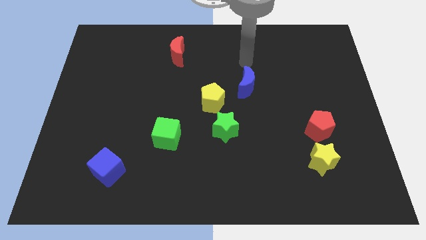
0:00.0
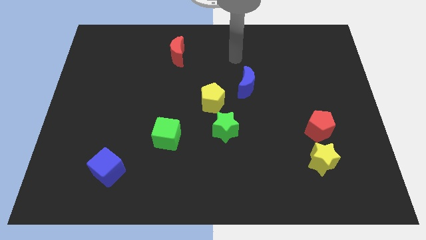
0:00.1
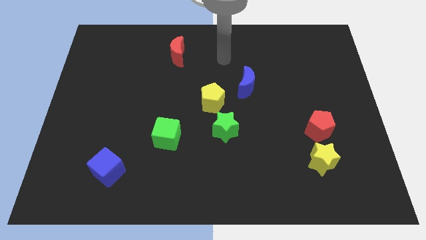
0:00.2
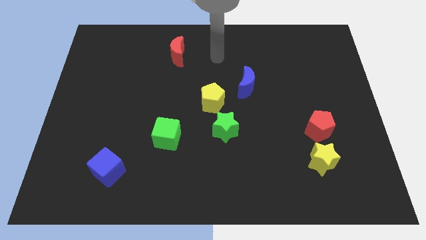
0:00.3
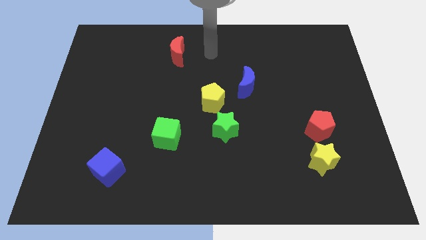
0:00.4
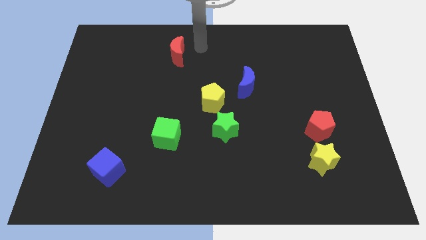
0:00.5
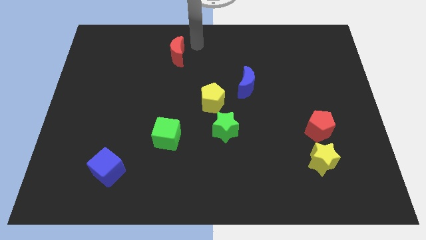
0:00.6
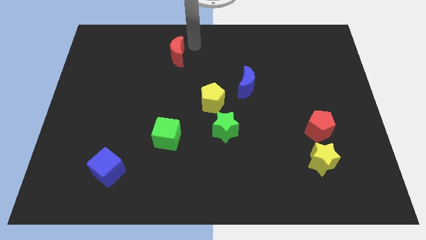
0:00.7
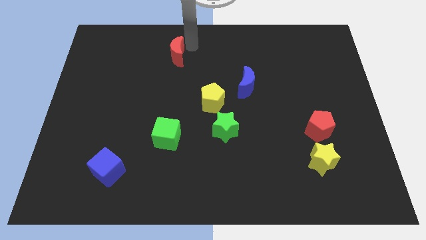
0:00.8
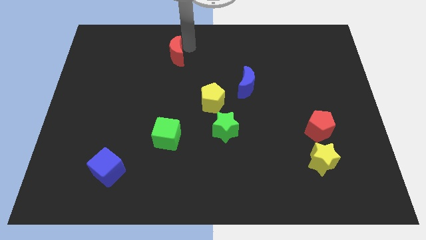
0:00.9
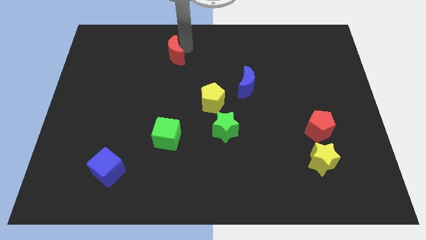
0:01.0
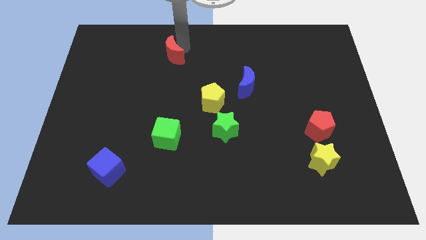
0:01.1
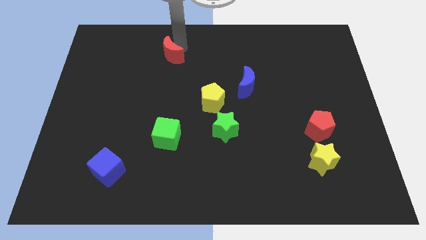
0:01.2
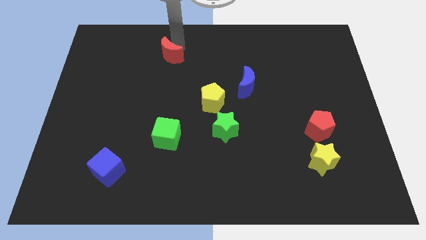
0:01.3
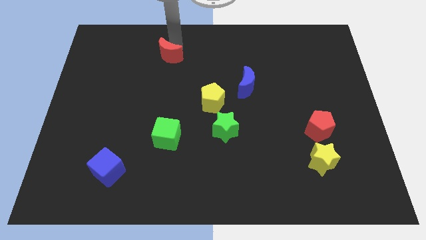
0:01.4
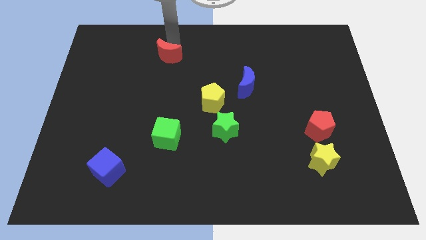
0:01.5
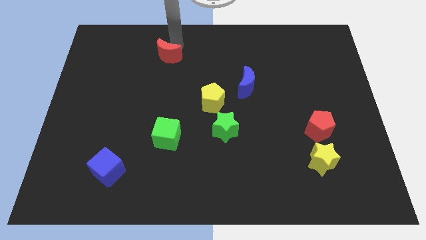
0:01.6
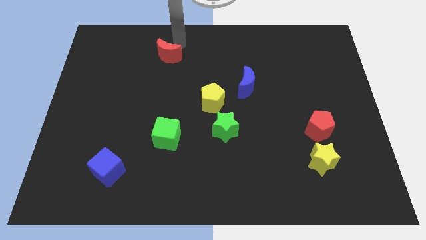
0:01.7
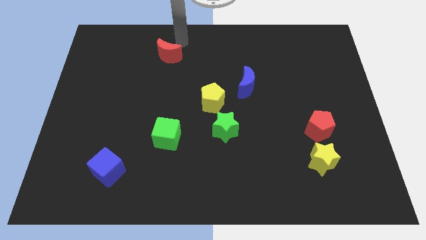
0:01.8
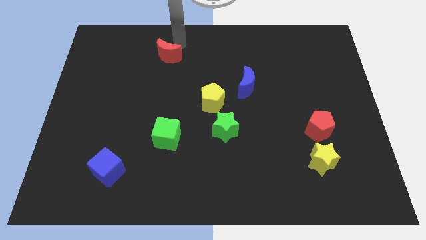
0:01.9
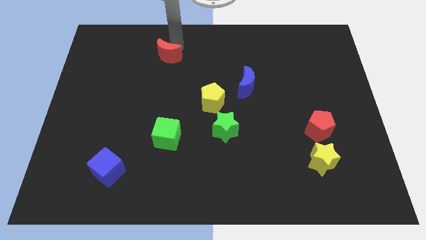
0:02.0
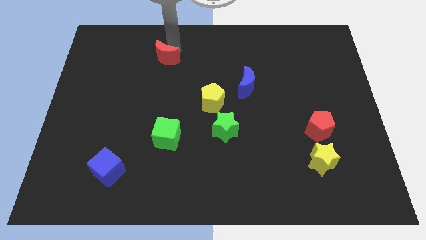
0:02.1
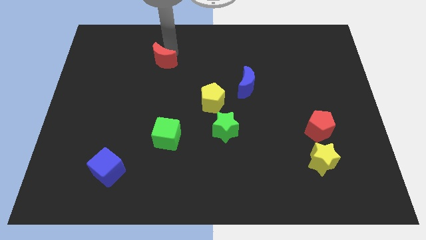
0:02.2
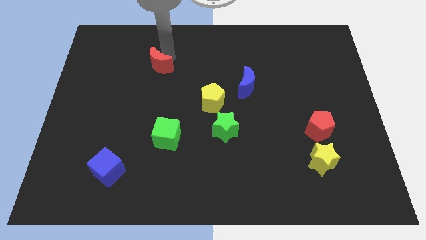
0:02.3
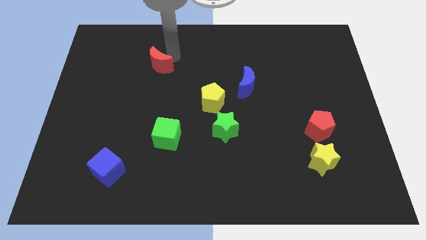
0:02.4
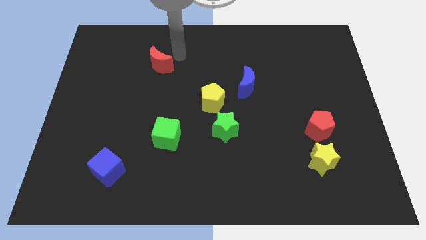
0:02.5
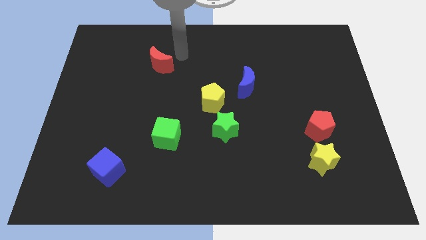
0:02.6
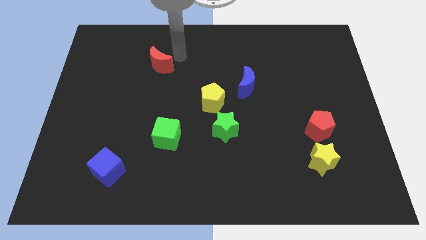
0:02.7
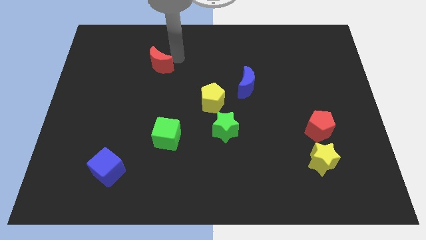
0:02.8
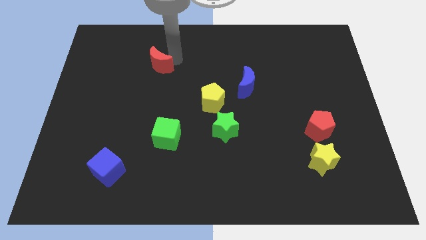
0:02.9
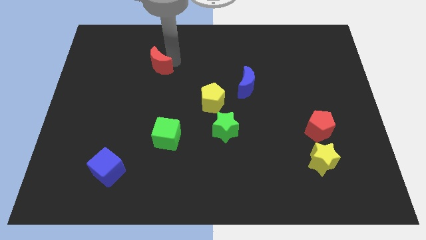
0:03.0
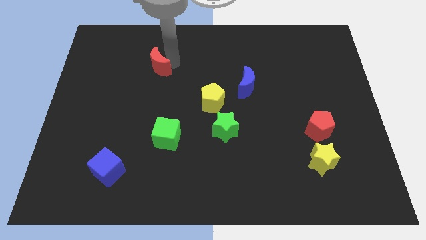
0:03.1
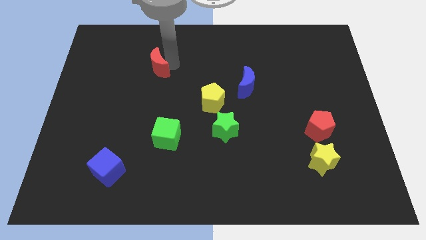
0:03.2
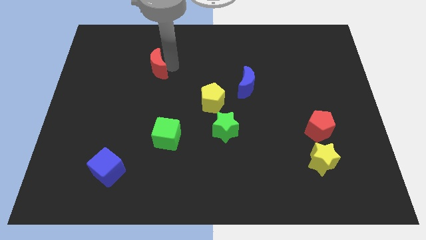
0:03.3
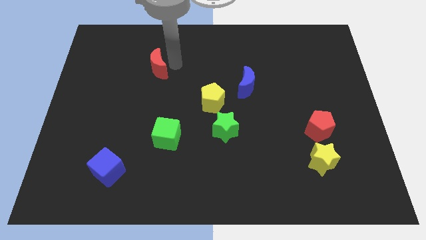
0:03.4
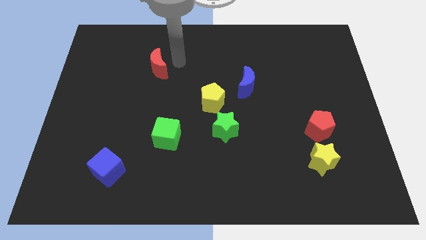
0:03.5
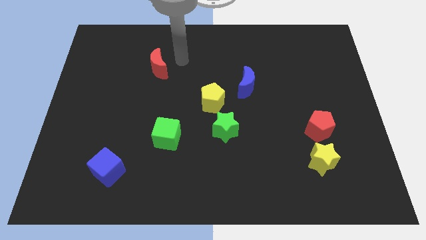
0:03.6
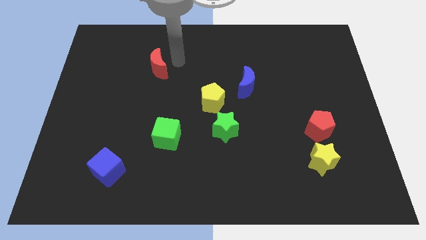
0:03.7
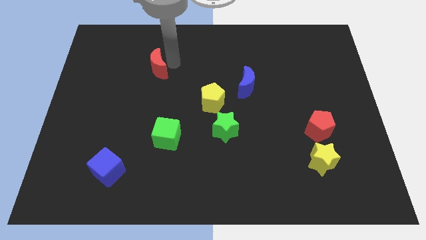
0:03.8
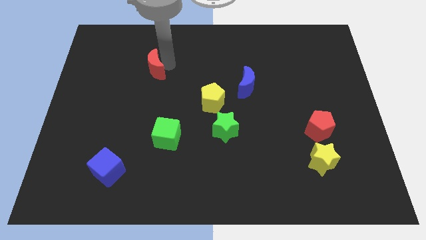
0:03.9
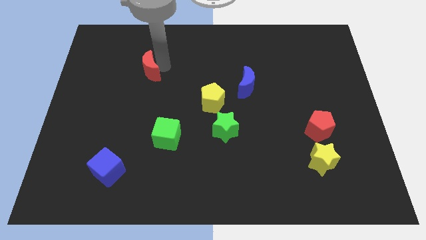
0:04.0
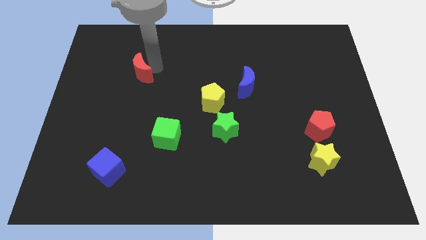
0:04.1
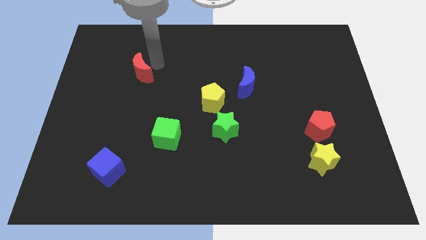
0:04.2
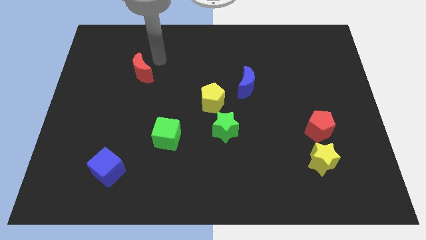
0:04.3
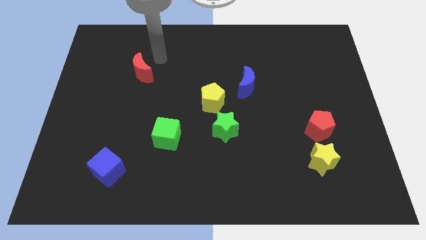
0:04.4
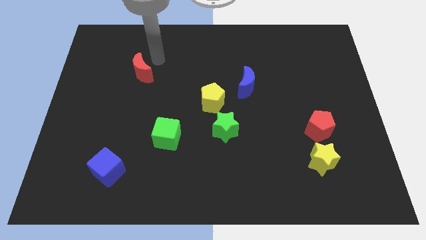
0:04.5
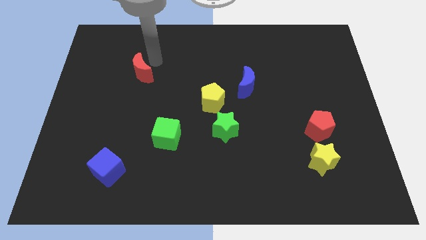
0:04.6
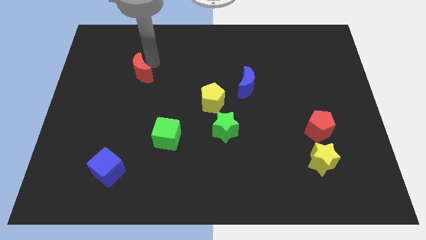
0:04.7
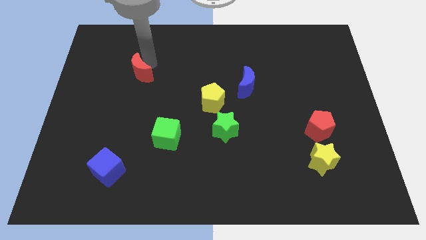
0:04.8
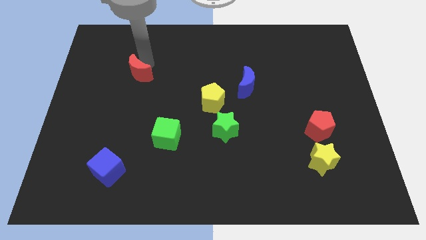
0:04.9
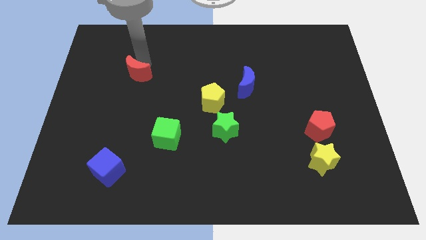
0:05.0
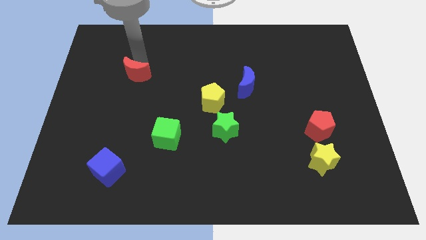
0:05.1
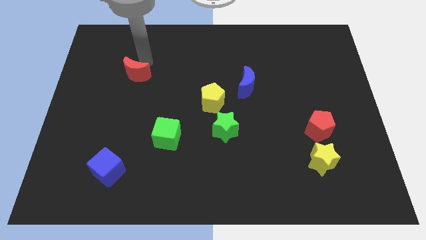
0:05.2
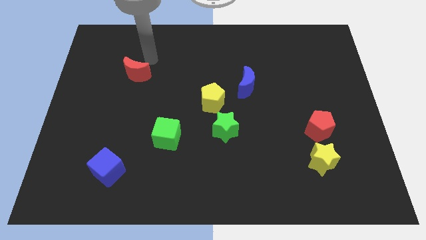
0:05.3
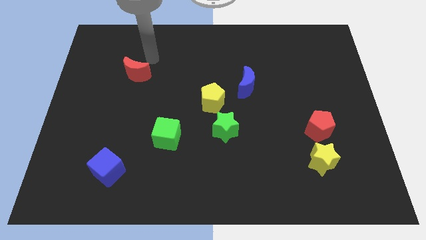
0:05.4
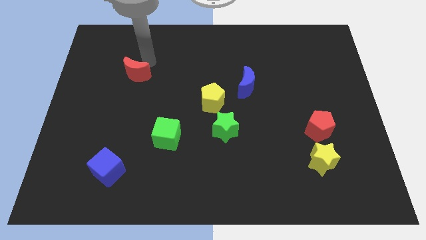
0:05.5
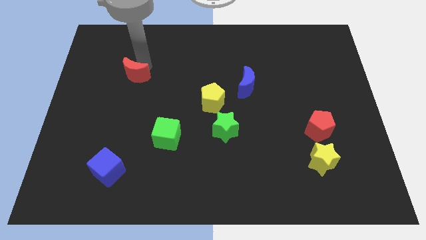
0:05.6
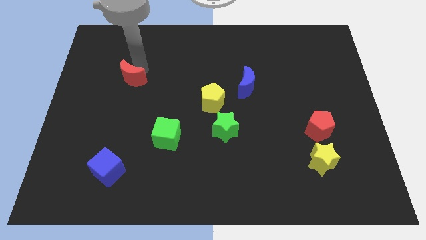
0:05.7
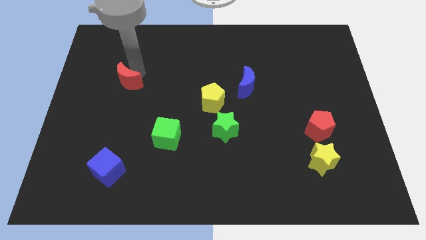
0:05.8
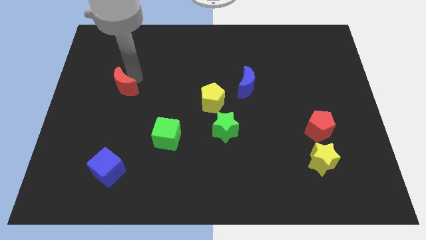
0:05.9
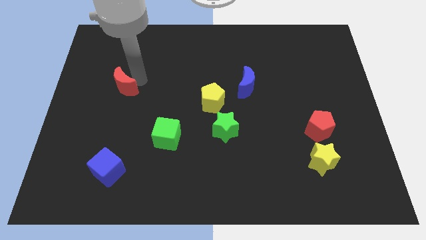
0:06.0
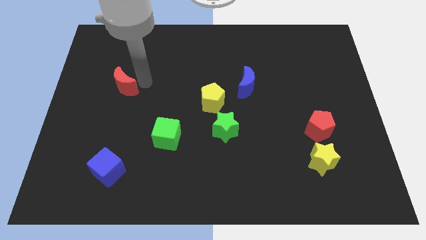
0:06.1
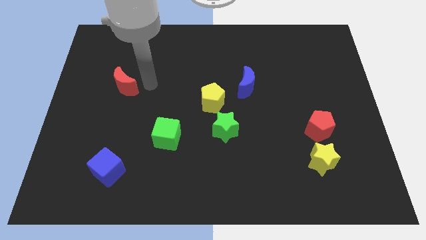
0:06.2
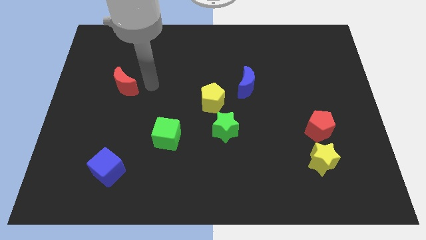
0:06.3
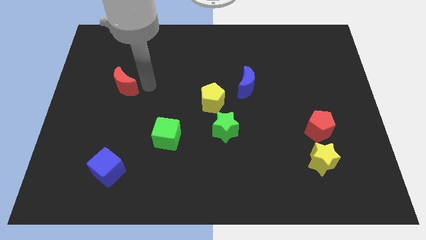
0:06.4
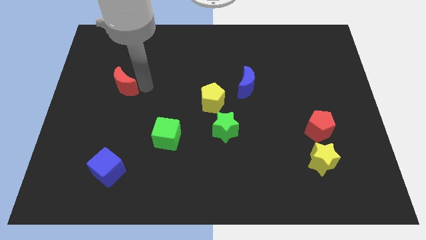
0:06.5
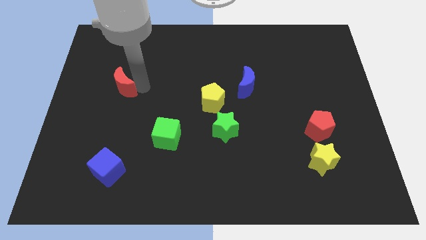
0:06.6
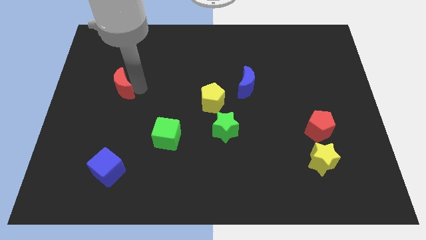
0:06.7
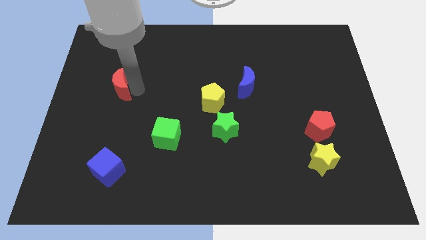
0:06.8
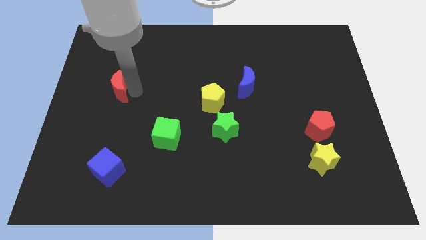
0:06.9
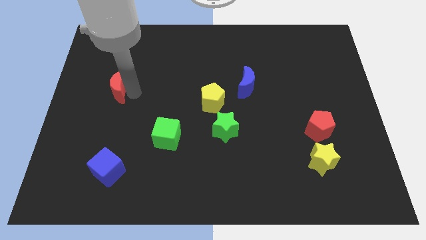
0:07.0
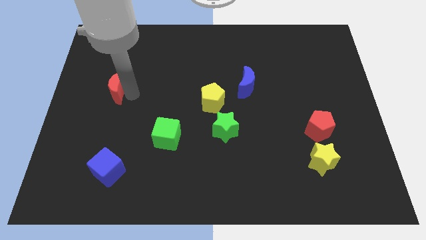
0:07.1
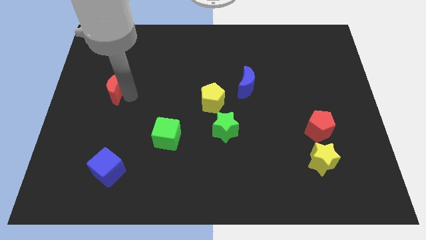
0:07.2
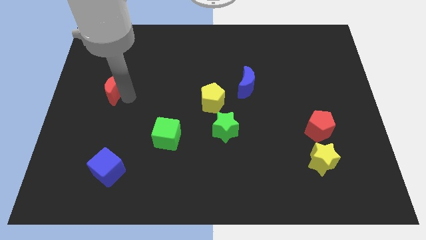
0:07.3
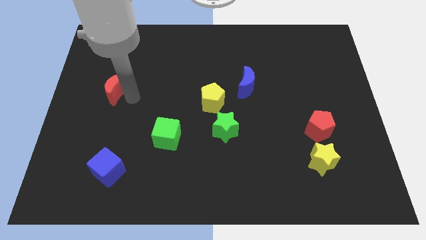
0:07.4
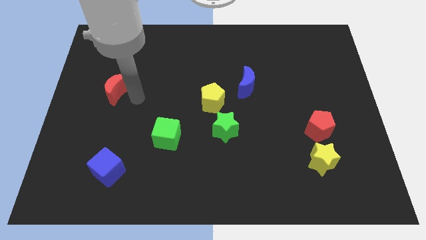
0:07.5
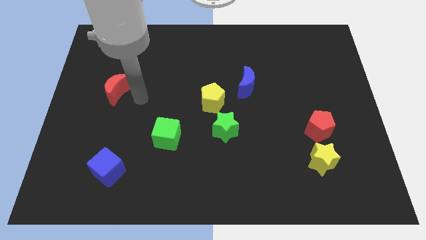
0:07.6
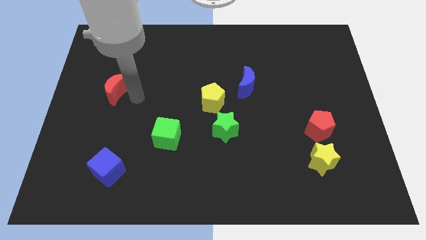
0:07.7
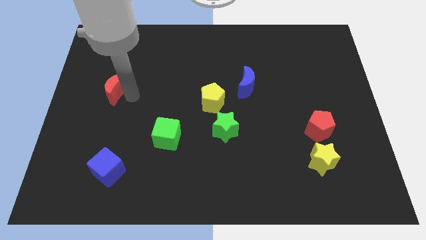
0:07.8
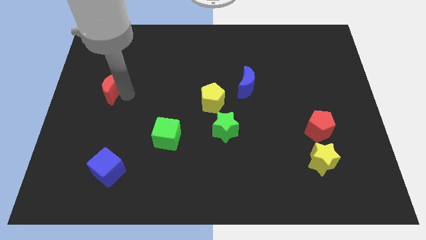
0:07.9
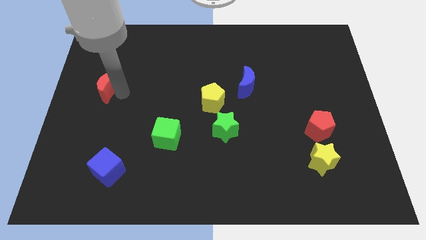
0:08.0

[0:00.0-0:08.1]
move the red moon to the left side
